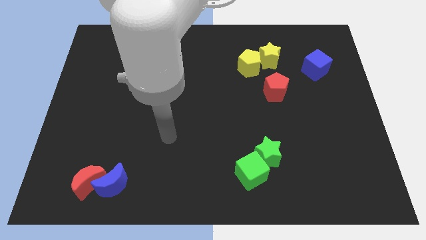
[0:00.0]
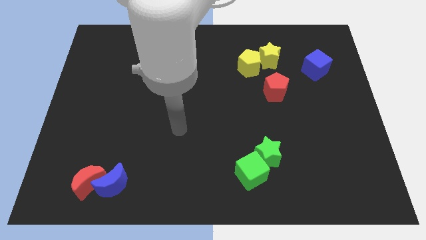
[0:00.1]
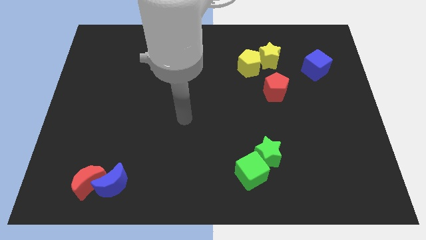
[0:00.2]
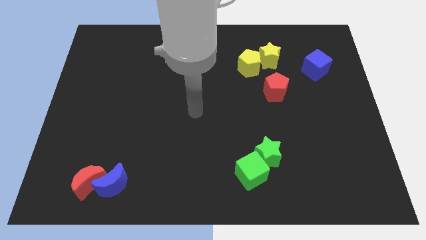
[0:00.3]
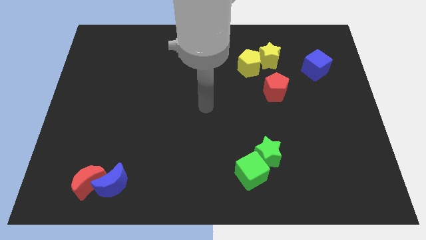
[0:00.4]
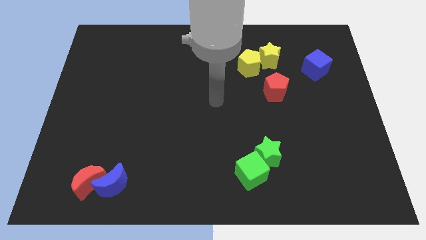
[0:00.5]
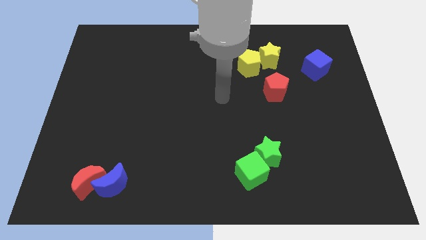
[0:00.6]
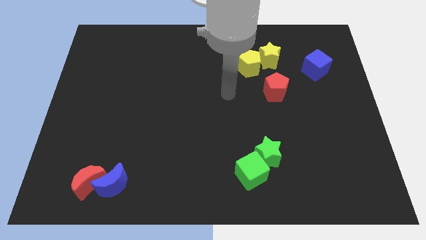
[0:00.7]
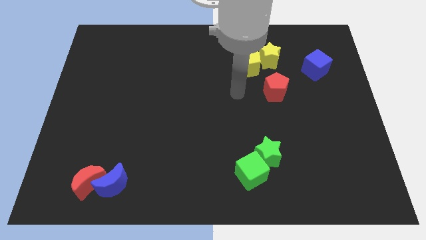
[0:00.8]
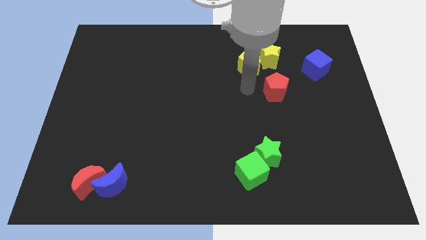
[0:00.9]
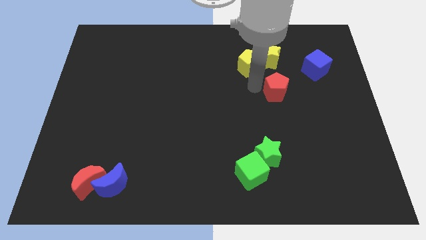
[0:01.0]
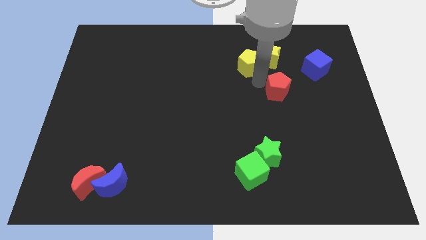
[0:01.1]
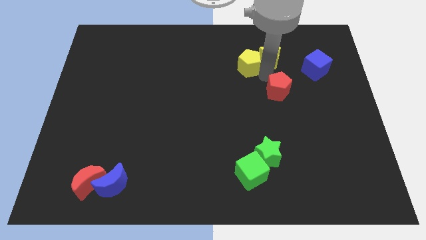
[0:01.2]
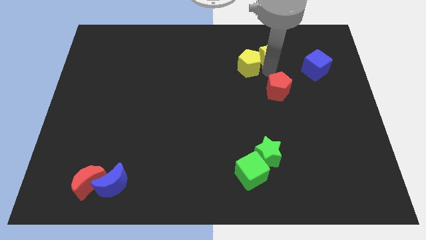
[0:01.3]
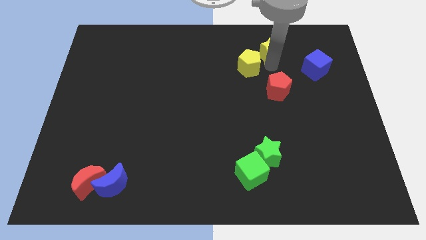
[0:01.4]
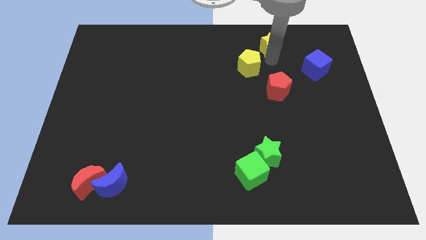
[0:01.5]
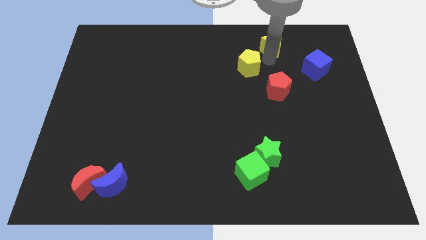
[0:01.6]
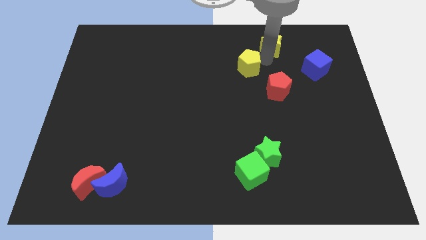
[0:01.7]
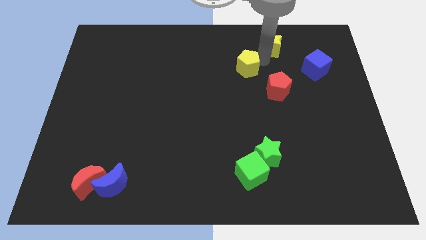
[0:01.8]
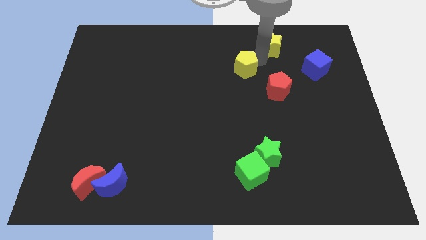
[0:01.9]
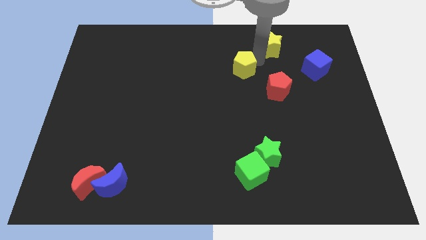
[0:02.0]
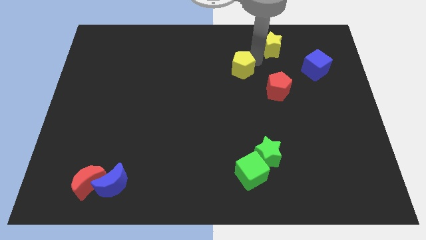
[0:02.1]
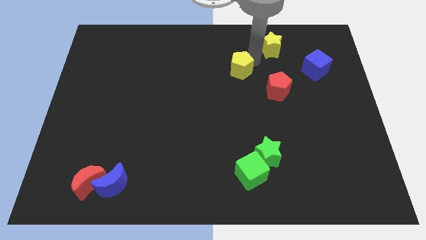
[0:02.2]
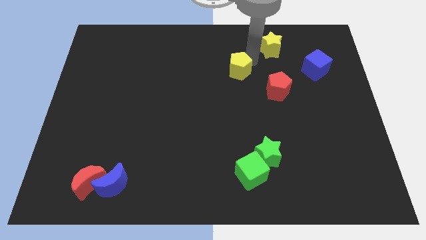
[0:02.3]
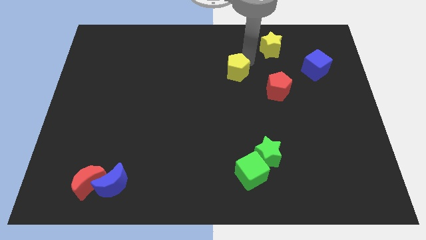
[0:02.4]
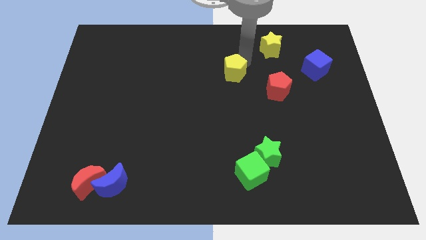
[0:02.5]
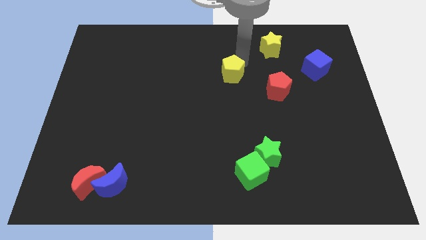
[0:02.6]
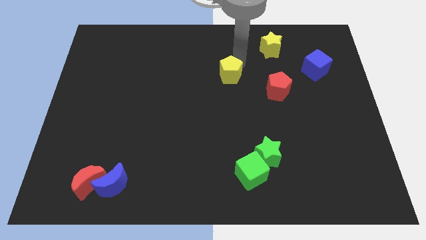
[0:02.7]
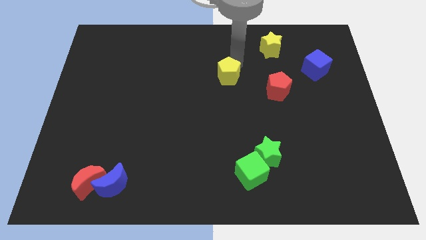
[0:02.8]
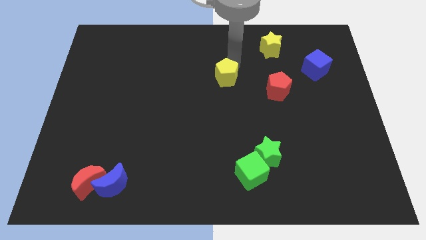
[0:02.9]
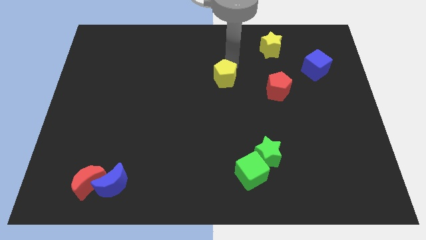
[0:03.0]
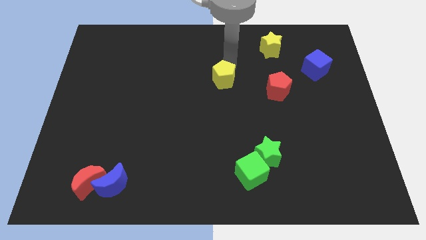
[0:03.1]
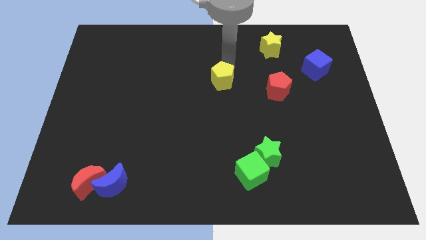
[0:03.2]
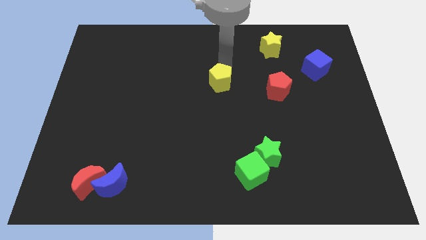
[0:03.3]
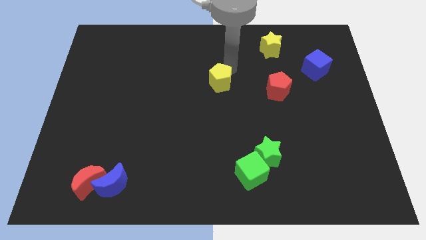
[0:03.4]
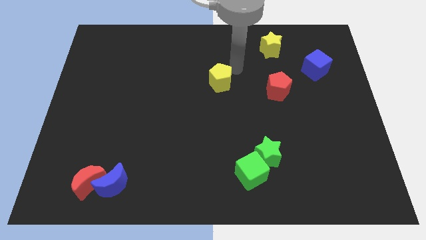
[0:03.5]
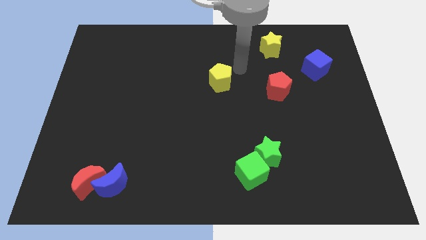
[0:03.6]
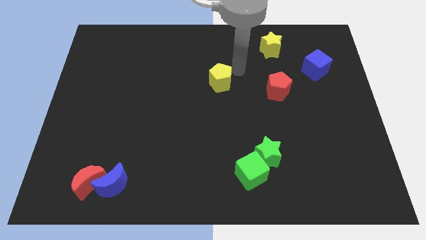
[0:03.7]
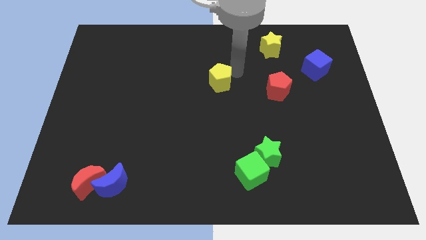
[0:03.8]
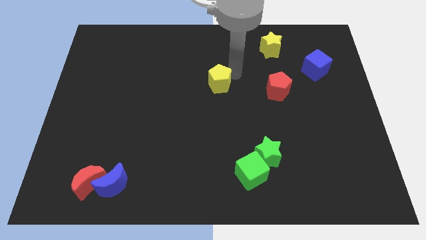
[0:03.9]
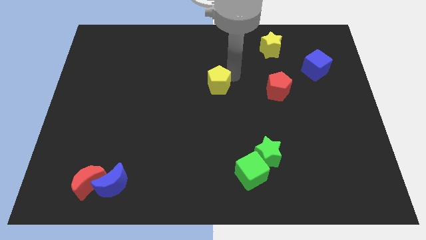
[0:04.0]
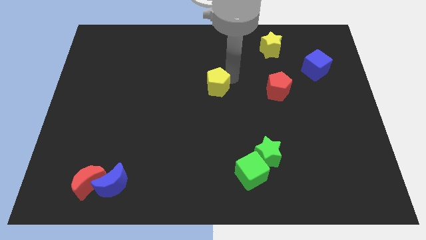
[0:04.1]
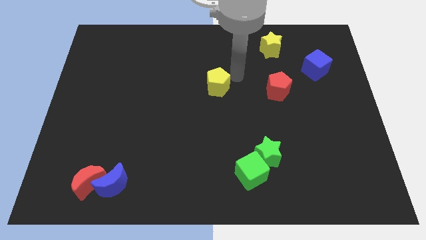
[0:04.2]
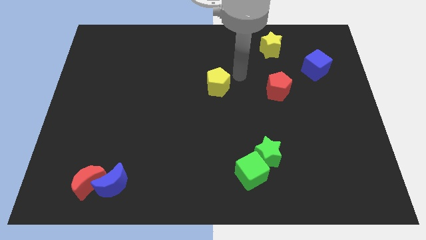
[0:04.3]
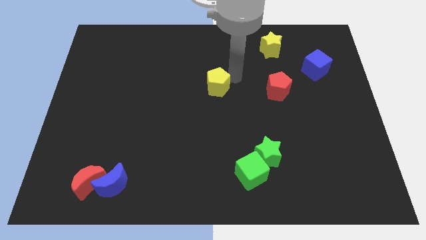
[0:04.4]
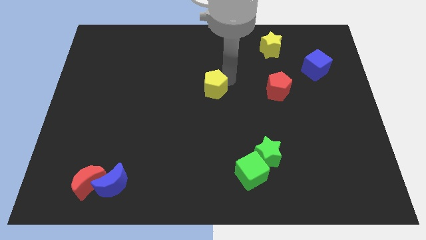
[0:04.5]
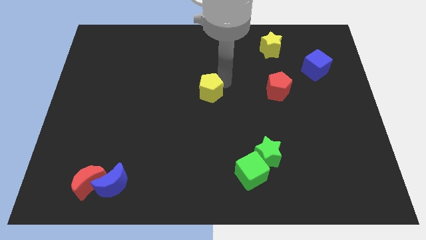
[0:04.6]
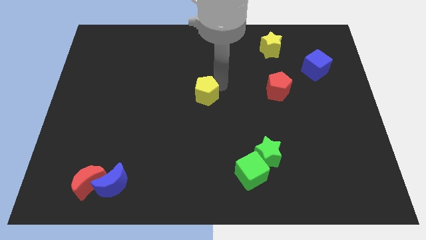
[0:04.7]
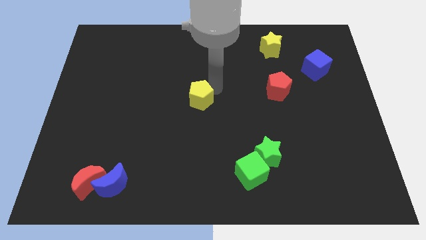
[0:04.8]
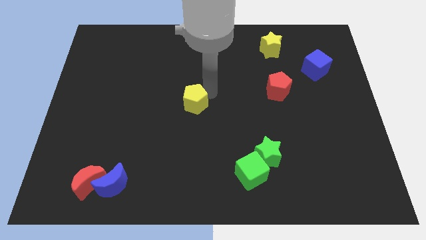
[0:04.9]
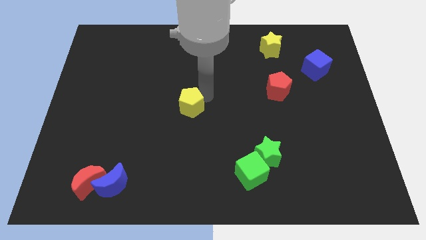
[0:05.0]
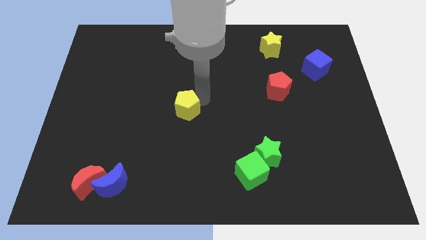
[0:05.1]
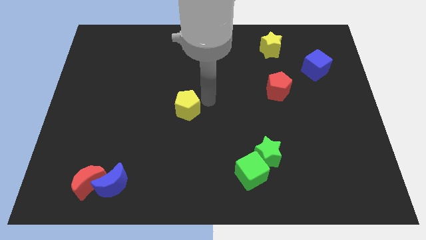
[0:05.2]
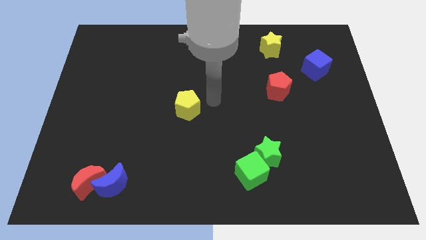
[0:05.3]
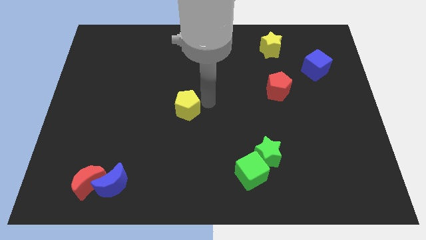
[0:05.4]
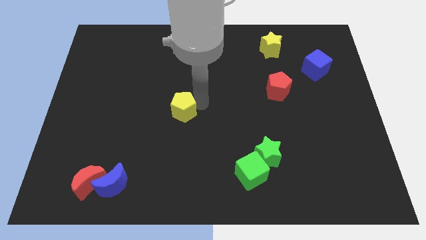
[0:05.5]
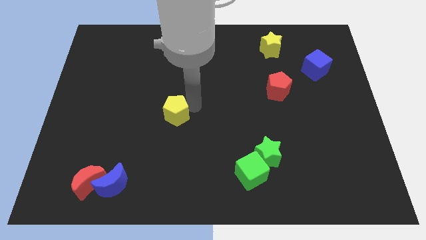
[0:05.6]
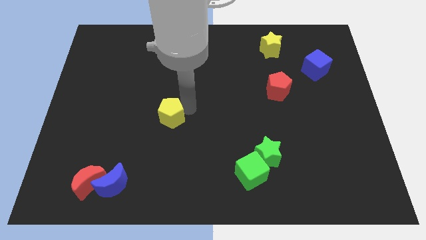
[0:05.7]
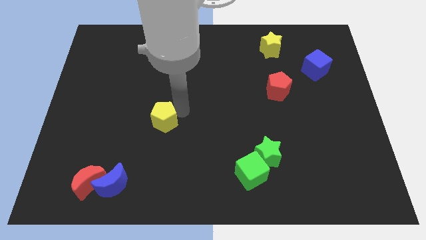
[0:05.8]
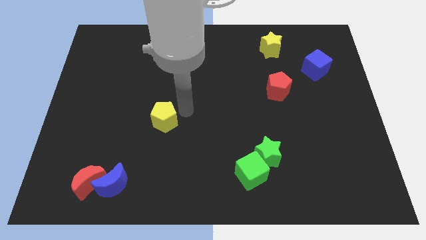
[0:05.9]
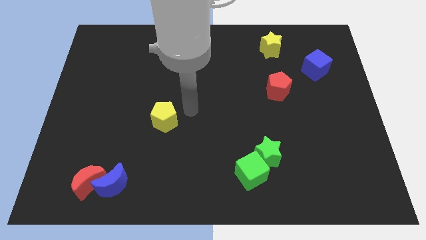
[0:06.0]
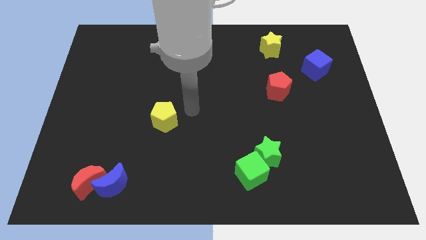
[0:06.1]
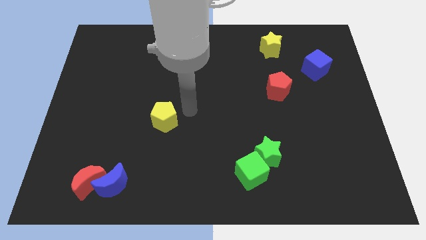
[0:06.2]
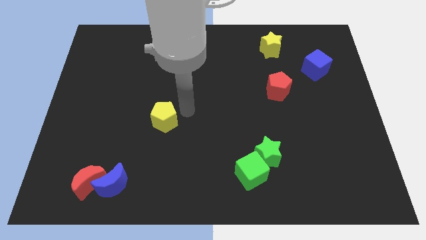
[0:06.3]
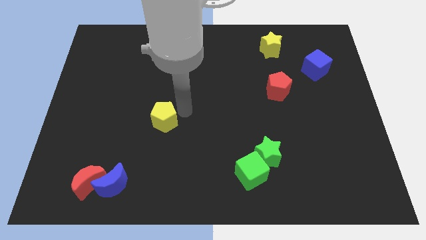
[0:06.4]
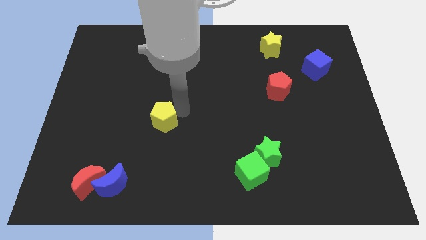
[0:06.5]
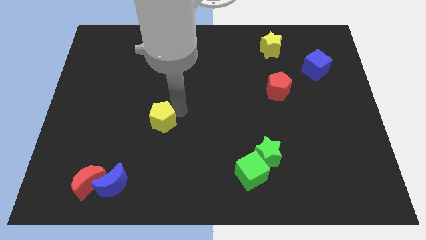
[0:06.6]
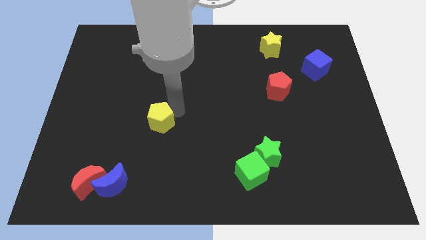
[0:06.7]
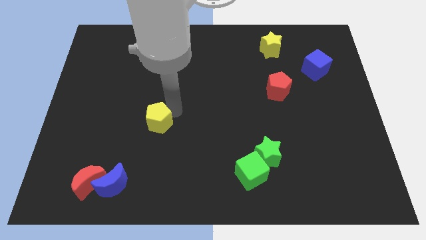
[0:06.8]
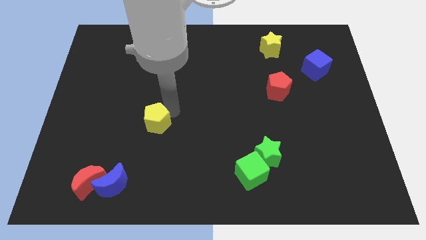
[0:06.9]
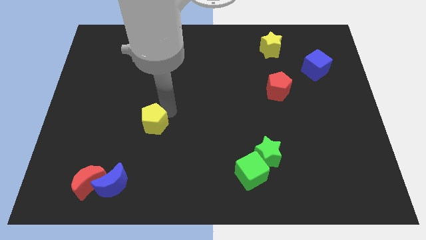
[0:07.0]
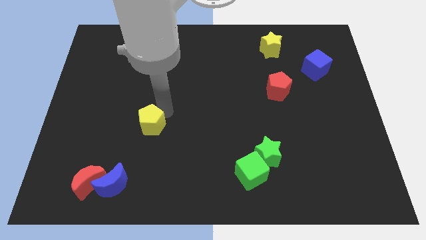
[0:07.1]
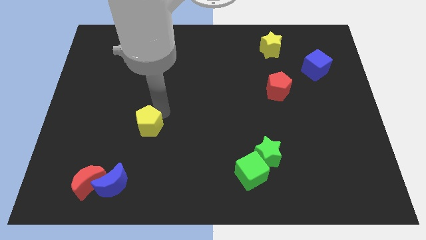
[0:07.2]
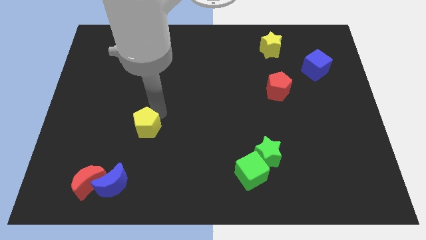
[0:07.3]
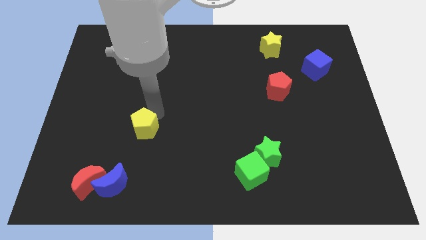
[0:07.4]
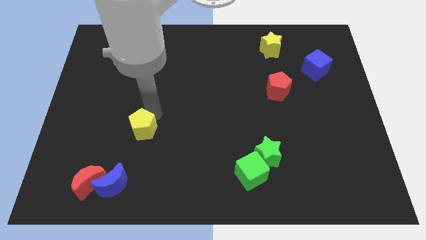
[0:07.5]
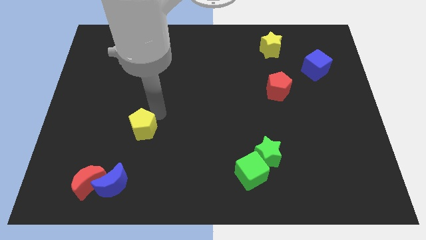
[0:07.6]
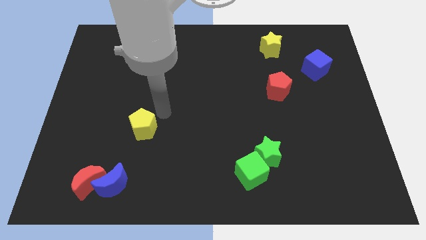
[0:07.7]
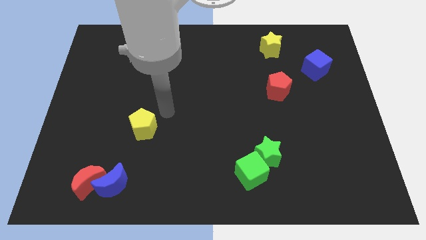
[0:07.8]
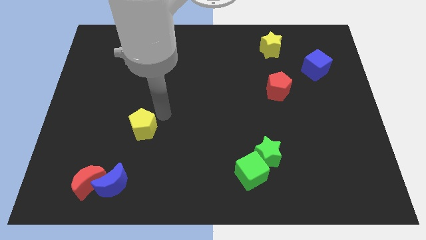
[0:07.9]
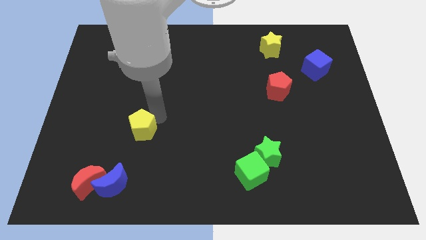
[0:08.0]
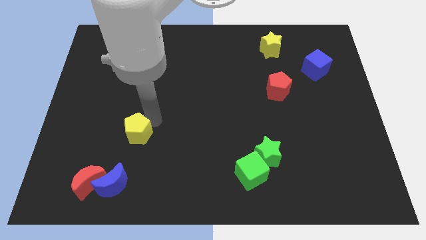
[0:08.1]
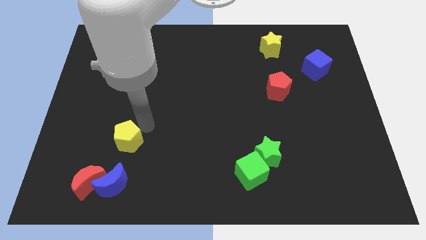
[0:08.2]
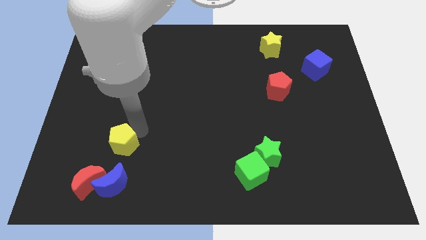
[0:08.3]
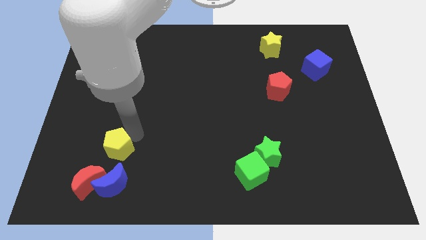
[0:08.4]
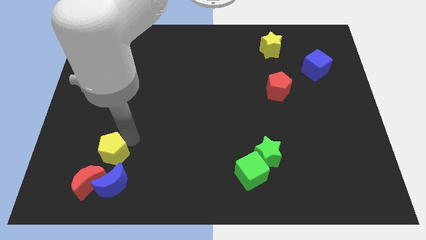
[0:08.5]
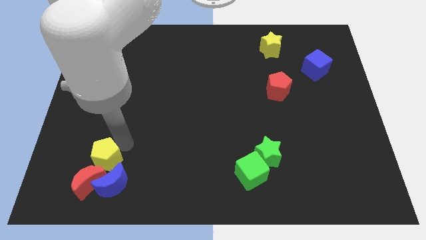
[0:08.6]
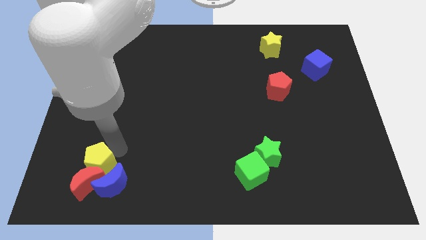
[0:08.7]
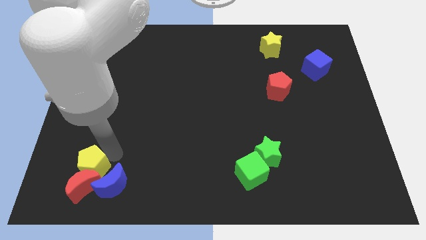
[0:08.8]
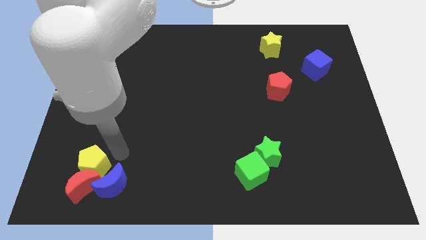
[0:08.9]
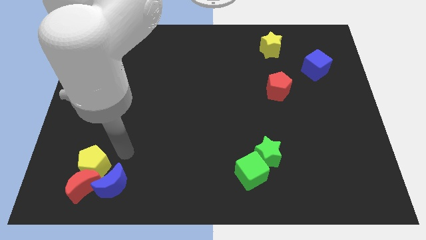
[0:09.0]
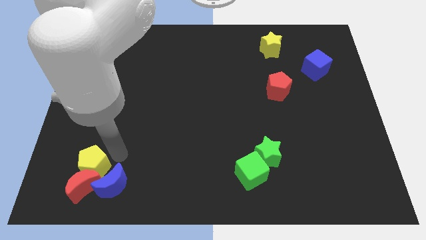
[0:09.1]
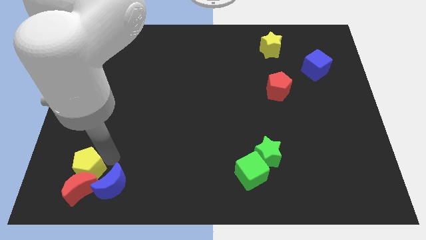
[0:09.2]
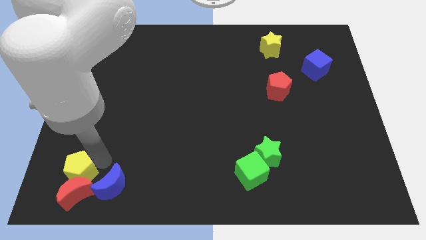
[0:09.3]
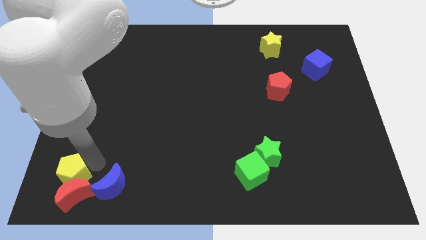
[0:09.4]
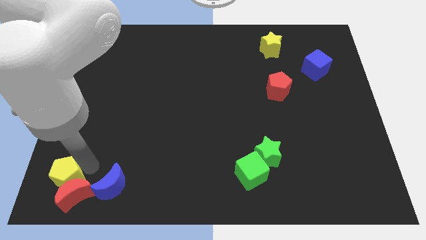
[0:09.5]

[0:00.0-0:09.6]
slide the yellow pentagon to the bottom left
